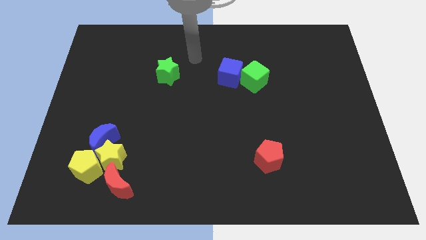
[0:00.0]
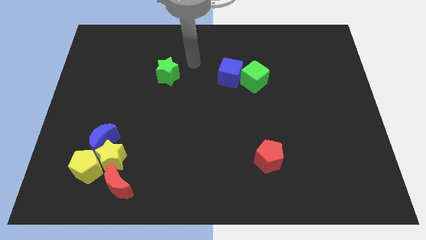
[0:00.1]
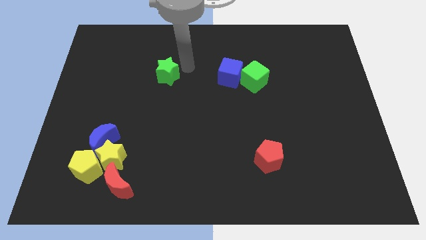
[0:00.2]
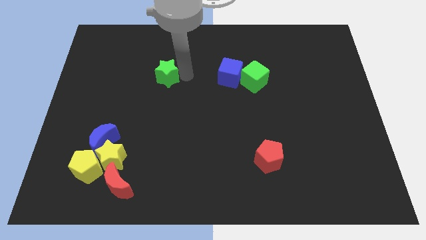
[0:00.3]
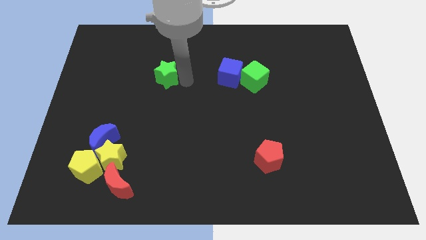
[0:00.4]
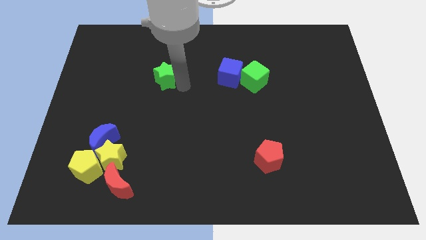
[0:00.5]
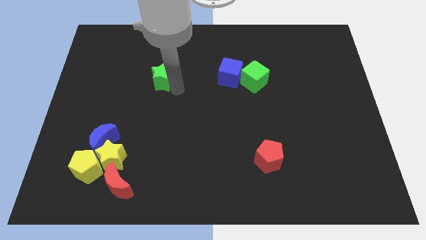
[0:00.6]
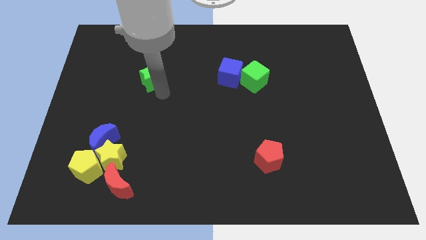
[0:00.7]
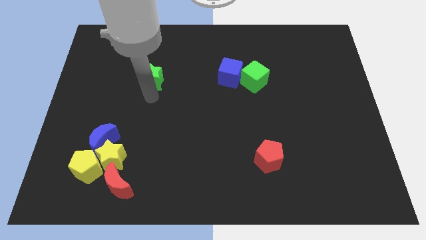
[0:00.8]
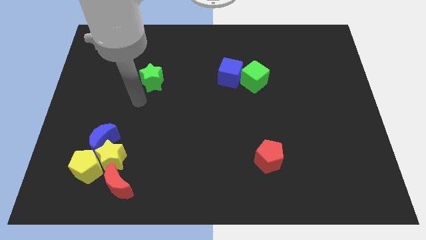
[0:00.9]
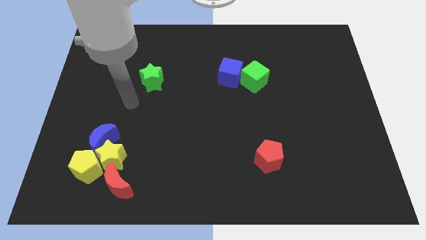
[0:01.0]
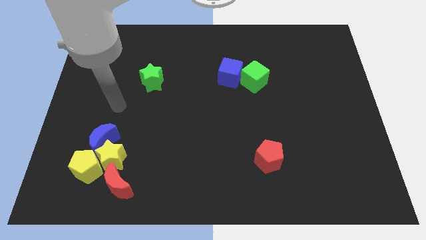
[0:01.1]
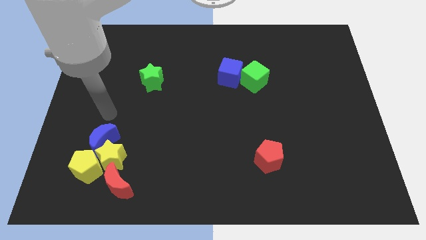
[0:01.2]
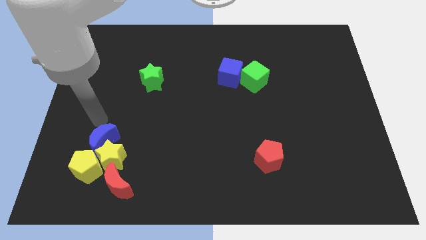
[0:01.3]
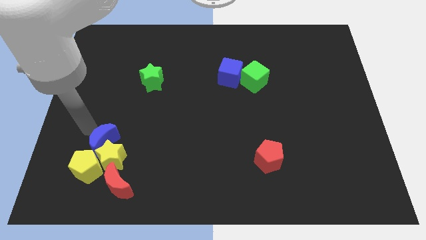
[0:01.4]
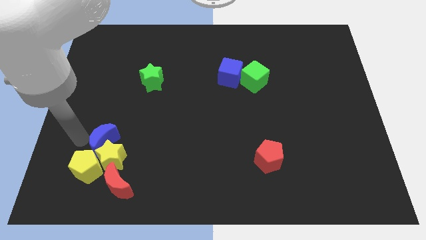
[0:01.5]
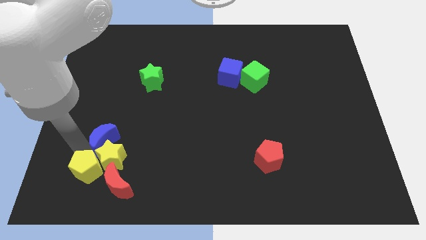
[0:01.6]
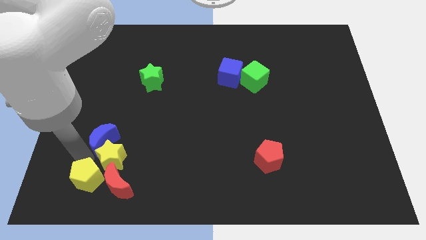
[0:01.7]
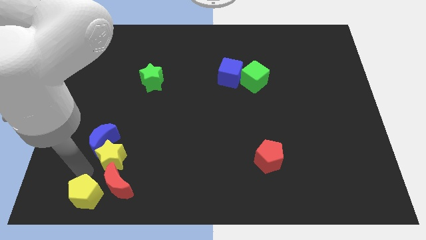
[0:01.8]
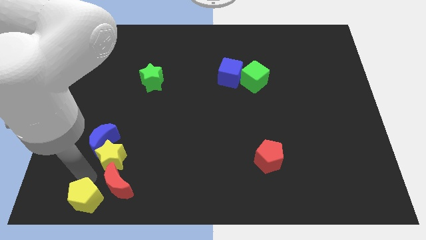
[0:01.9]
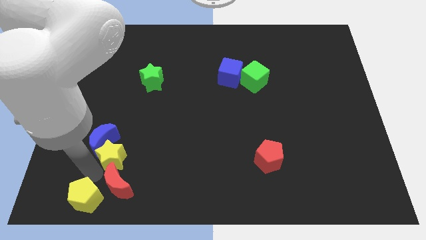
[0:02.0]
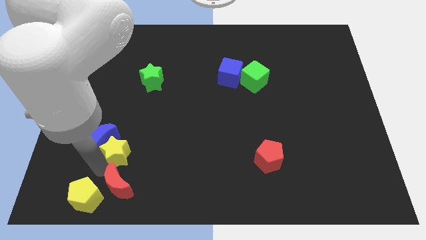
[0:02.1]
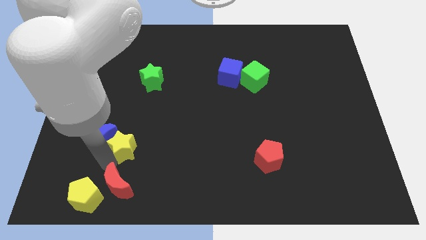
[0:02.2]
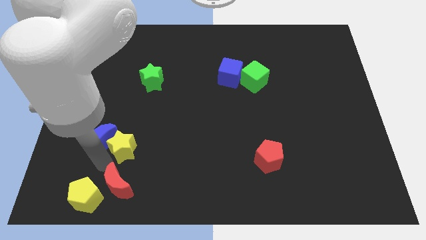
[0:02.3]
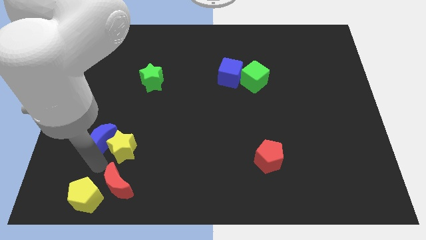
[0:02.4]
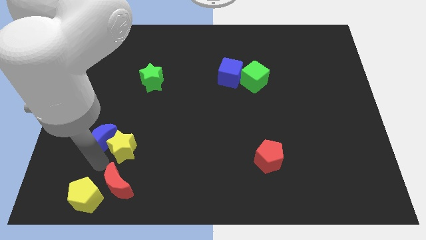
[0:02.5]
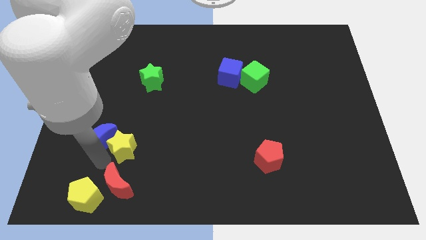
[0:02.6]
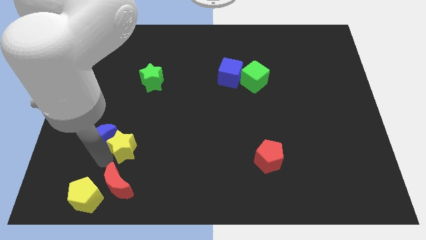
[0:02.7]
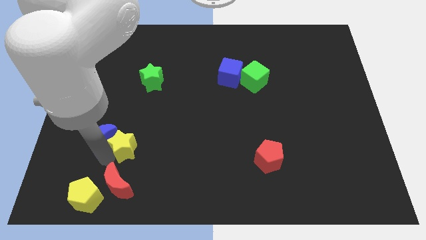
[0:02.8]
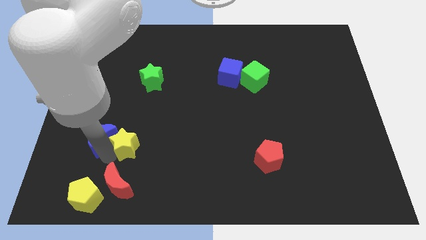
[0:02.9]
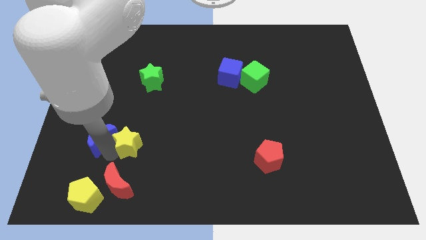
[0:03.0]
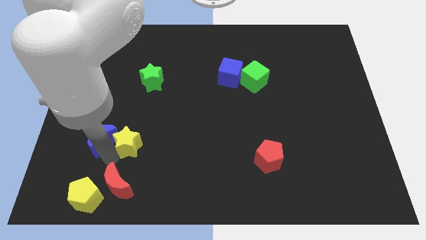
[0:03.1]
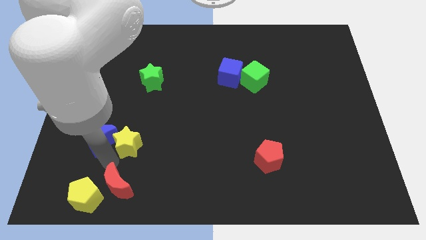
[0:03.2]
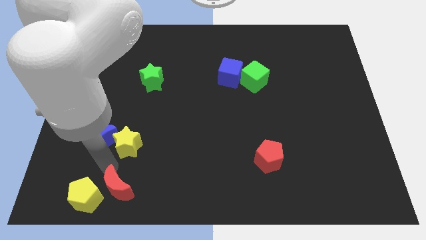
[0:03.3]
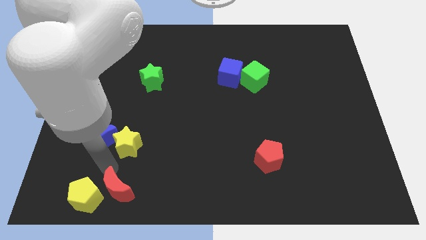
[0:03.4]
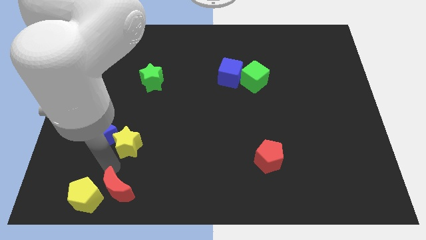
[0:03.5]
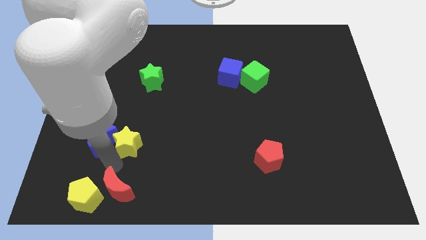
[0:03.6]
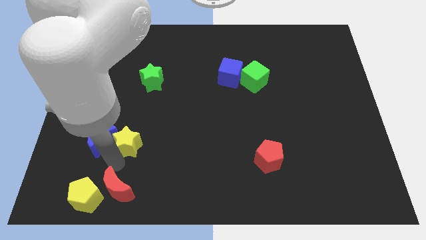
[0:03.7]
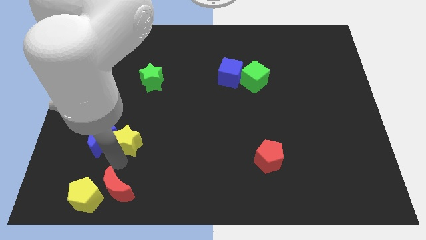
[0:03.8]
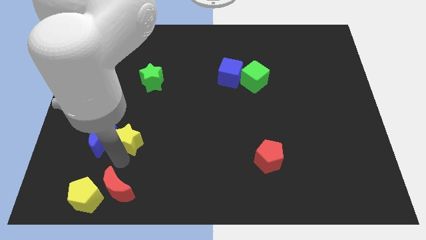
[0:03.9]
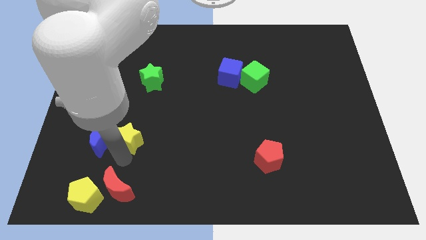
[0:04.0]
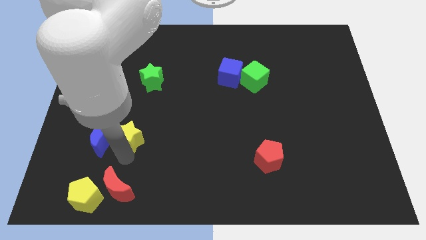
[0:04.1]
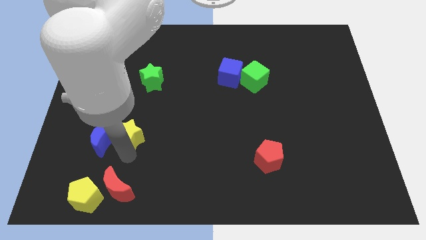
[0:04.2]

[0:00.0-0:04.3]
separate the yellow star from the group of blocks

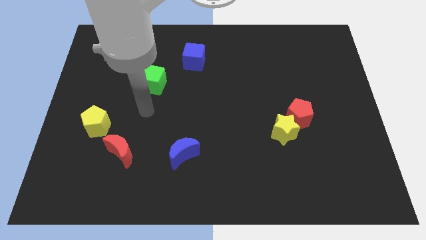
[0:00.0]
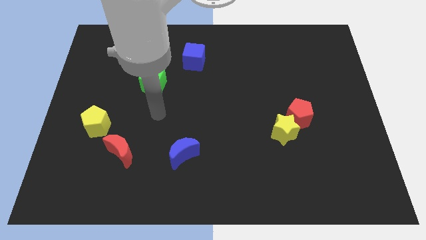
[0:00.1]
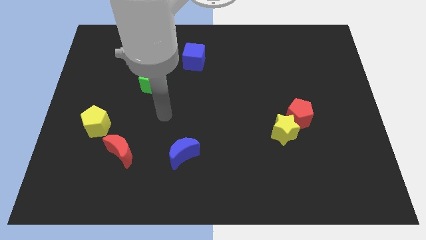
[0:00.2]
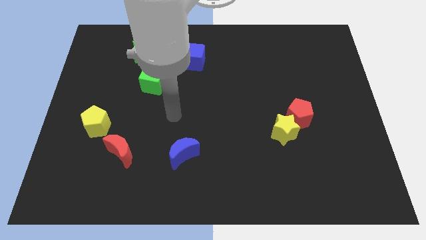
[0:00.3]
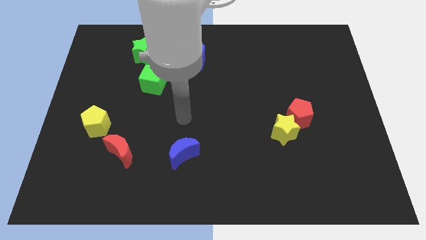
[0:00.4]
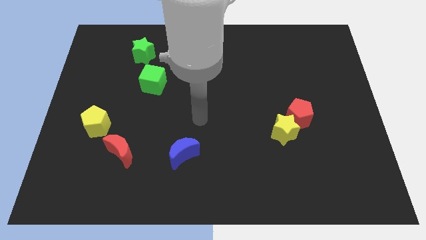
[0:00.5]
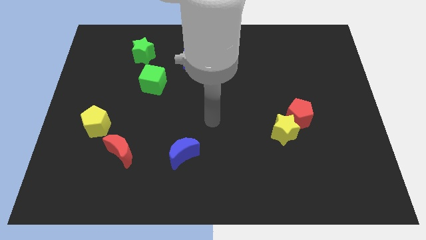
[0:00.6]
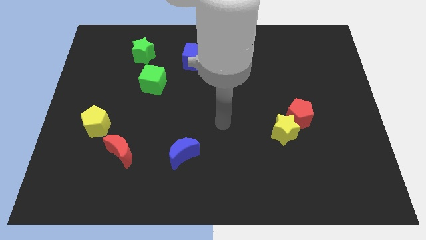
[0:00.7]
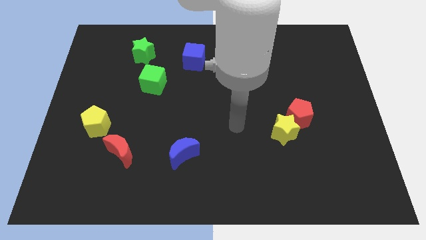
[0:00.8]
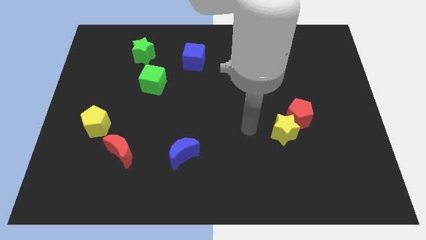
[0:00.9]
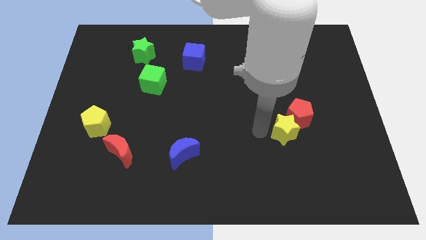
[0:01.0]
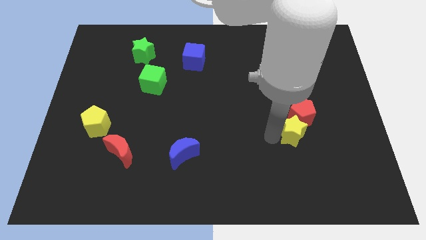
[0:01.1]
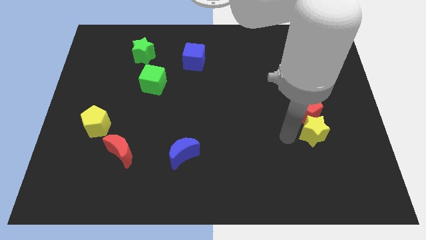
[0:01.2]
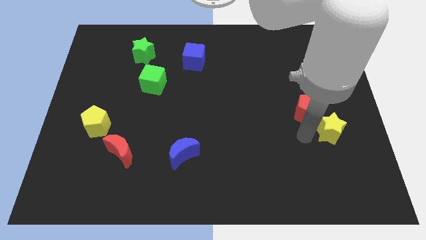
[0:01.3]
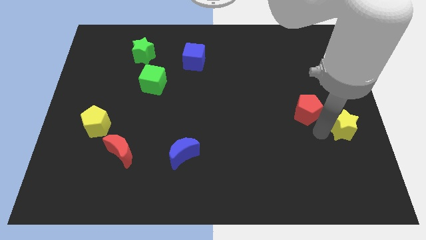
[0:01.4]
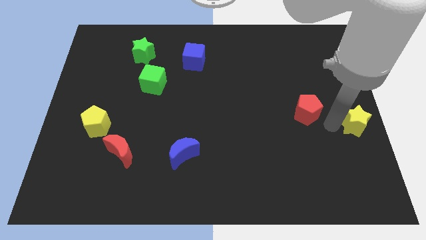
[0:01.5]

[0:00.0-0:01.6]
pull the red pentagon apart from the yellow star

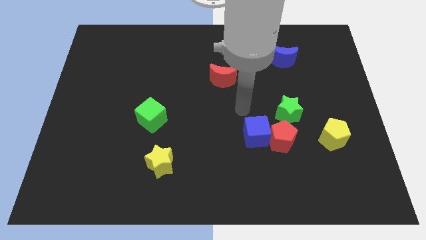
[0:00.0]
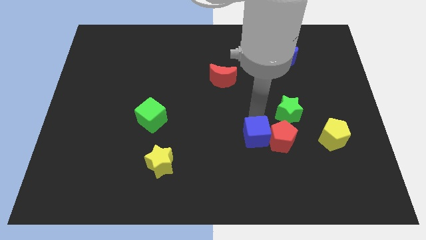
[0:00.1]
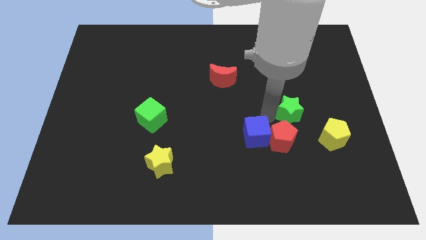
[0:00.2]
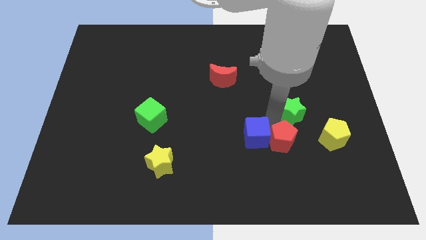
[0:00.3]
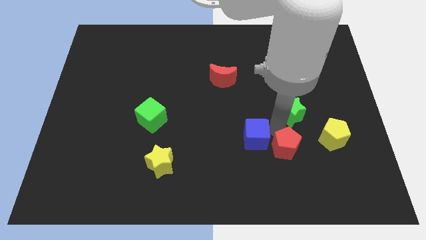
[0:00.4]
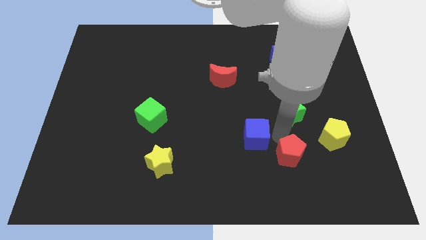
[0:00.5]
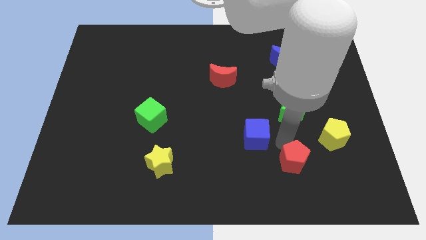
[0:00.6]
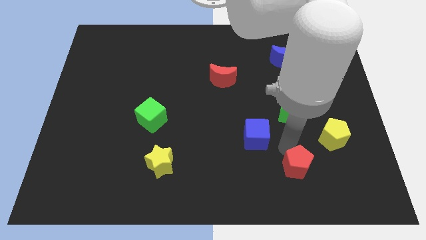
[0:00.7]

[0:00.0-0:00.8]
separate the red pentagon from the blue cube and green star

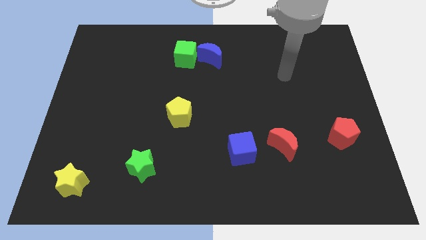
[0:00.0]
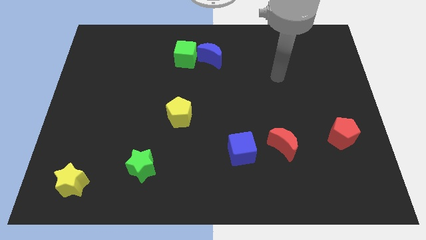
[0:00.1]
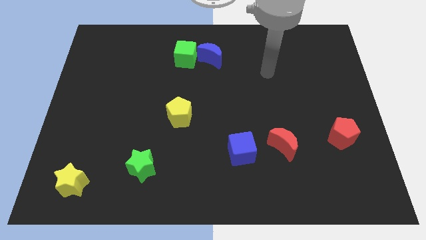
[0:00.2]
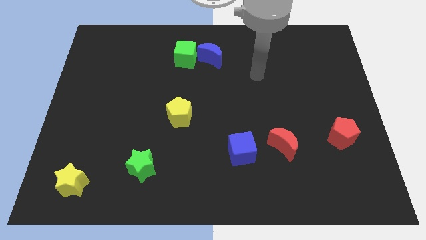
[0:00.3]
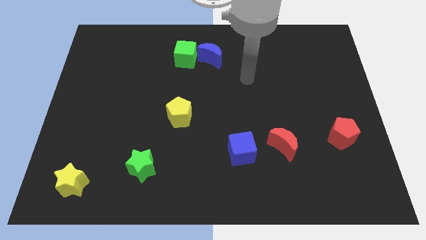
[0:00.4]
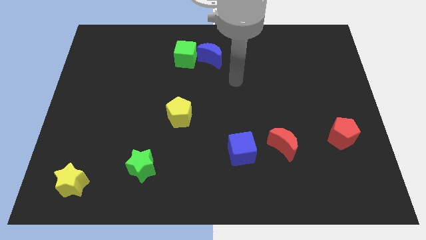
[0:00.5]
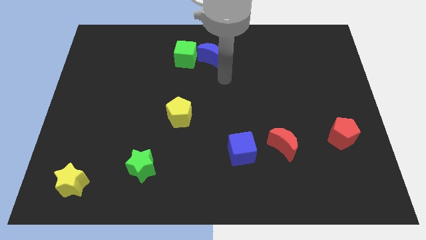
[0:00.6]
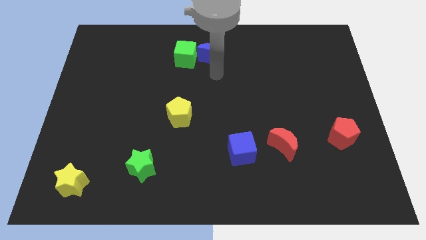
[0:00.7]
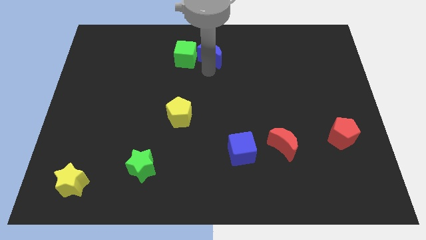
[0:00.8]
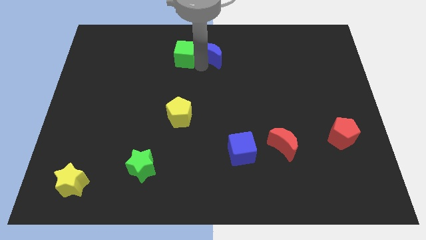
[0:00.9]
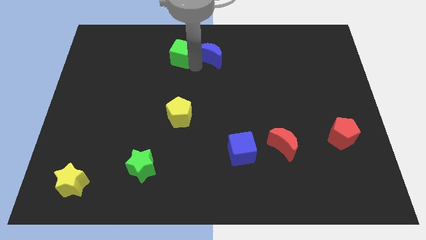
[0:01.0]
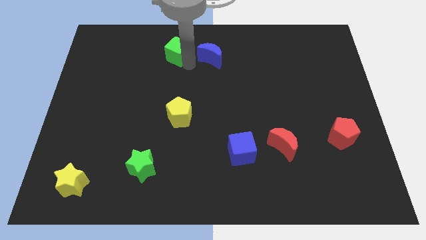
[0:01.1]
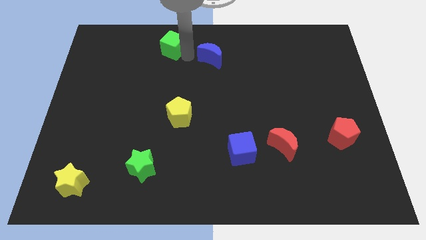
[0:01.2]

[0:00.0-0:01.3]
move the blue moon away from the green cube

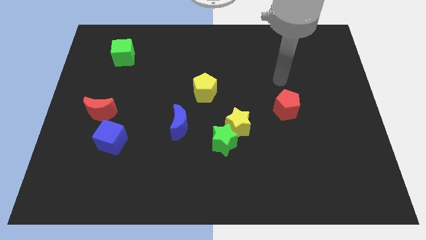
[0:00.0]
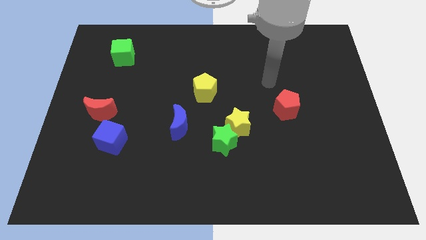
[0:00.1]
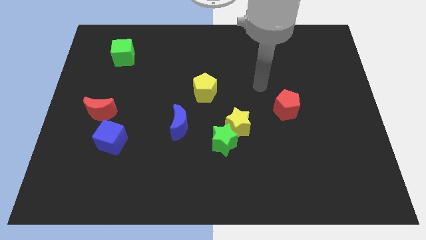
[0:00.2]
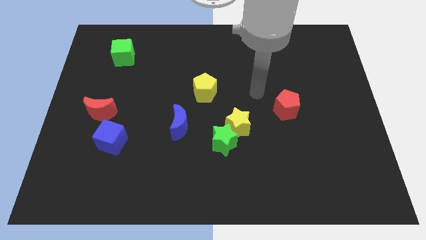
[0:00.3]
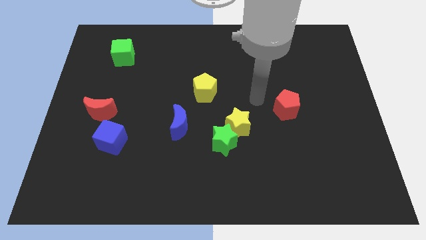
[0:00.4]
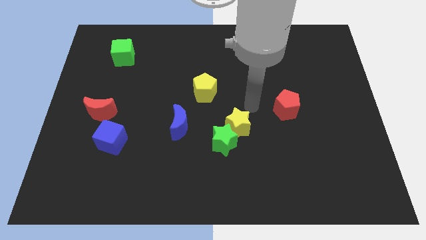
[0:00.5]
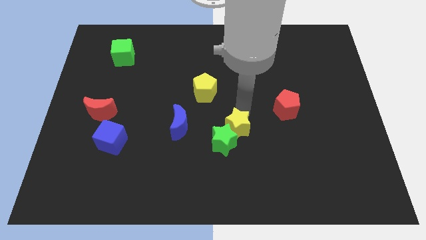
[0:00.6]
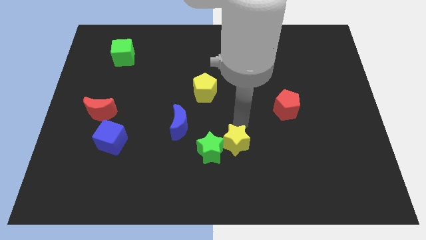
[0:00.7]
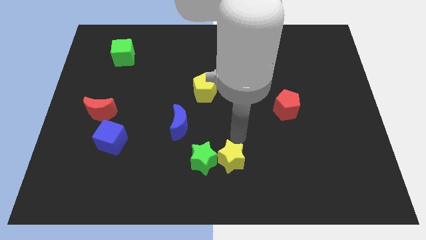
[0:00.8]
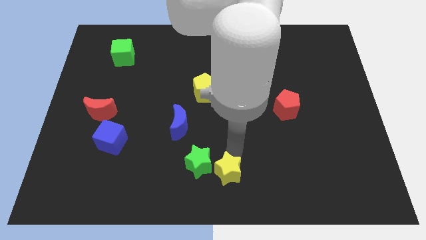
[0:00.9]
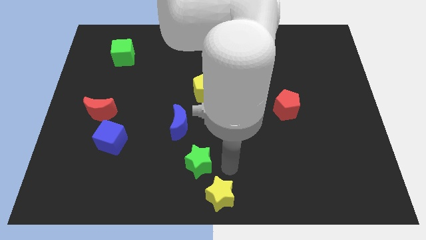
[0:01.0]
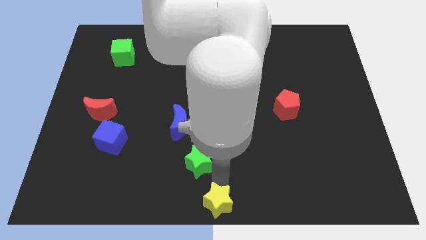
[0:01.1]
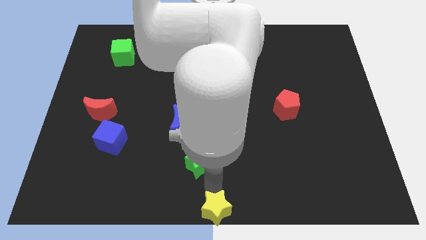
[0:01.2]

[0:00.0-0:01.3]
separate the green star from the yellow star
